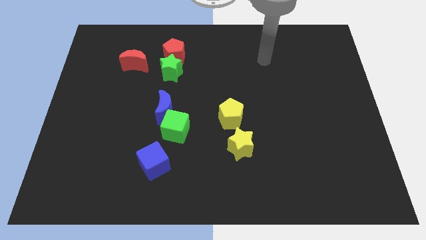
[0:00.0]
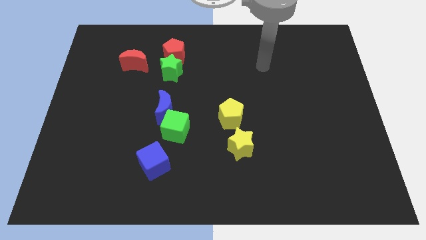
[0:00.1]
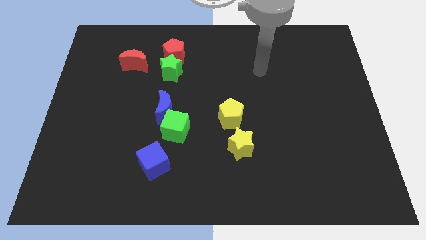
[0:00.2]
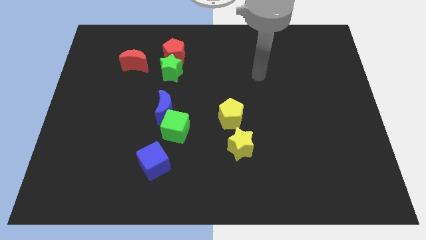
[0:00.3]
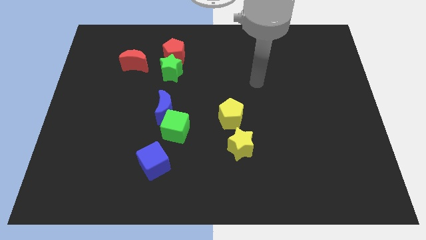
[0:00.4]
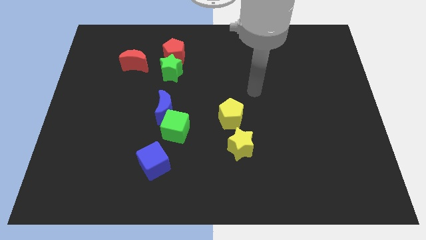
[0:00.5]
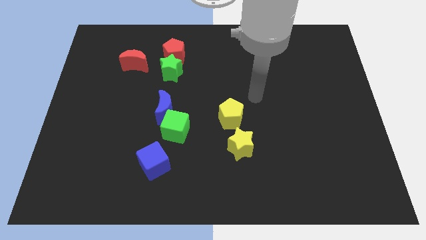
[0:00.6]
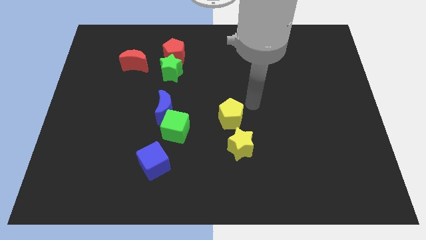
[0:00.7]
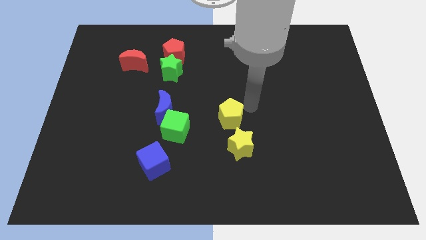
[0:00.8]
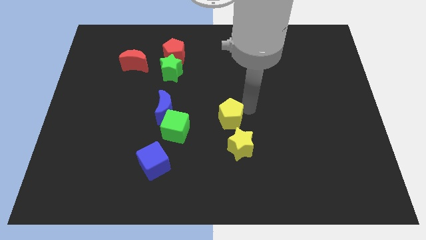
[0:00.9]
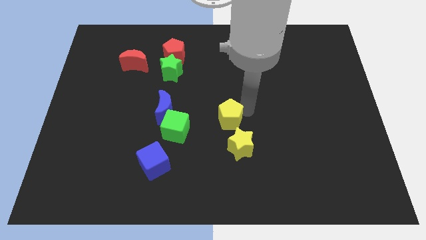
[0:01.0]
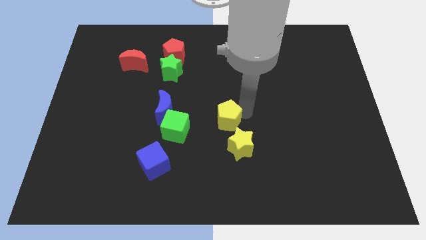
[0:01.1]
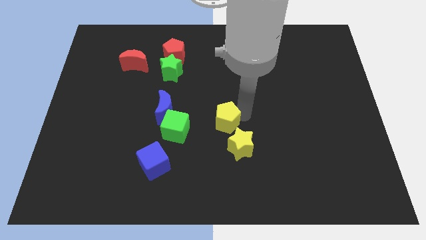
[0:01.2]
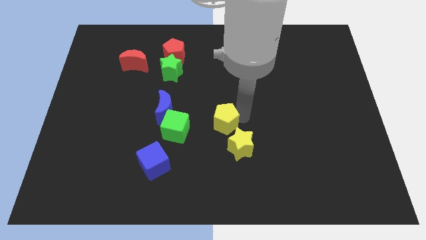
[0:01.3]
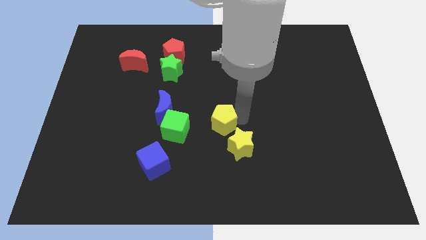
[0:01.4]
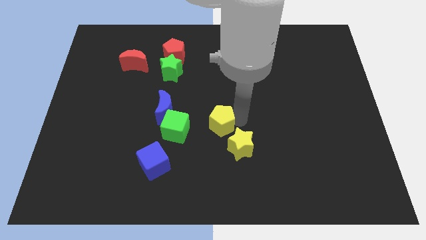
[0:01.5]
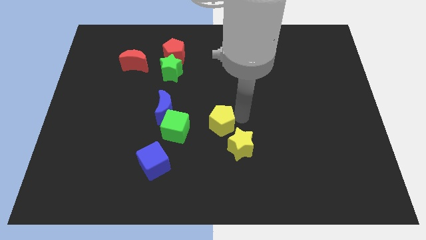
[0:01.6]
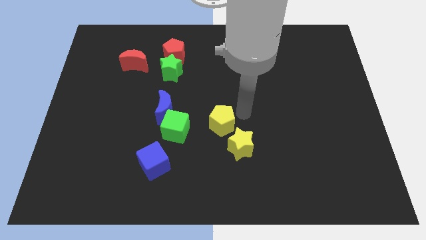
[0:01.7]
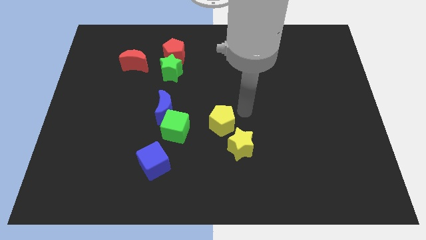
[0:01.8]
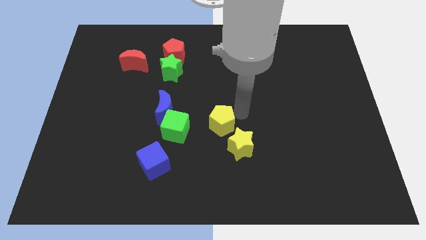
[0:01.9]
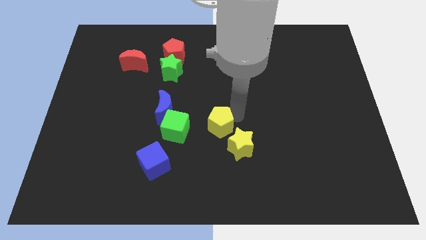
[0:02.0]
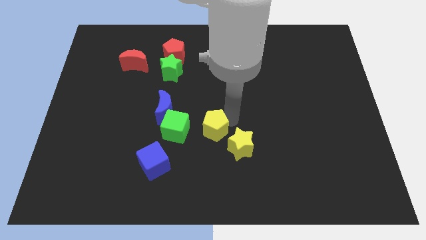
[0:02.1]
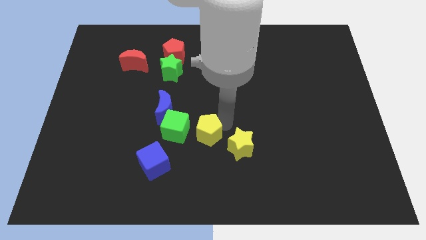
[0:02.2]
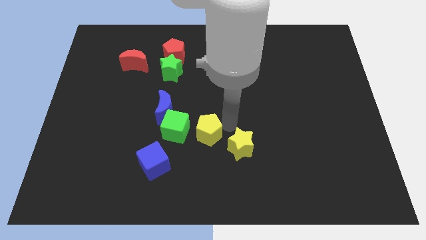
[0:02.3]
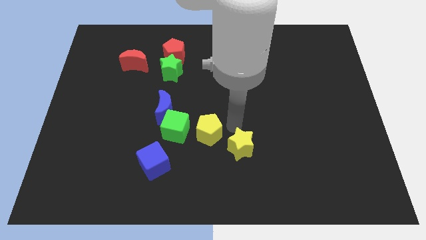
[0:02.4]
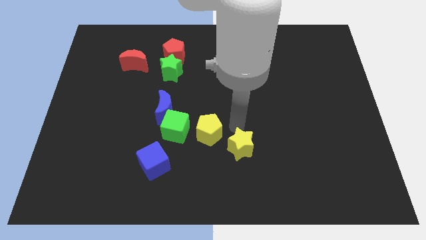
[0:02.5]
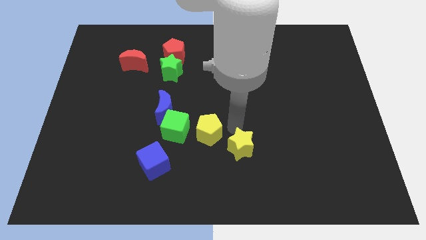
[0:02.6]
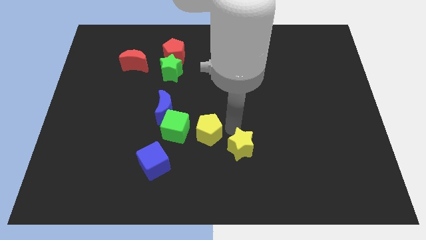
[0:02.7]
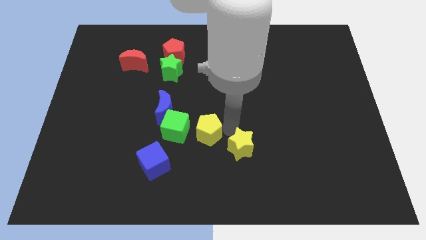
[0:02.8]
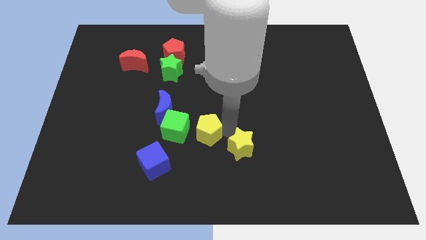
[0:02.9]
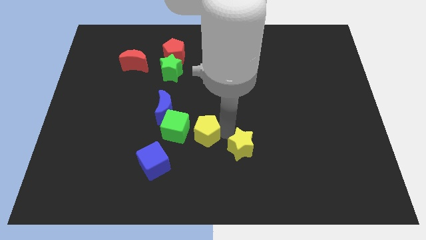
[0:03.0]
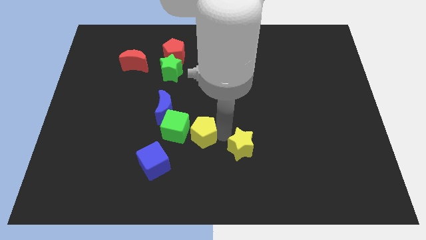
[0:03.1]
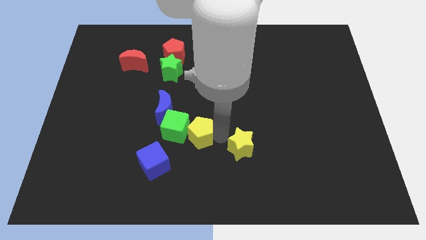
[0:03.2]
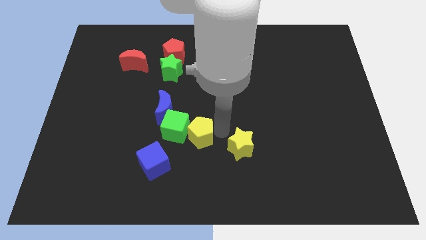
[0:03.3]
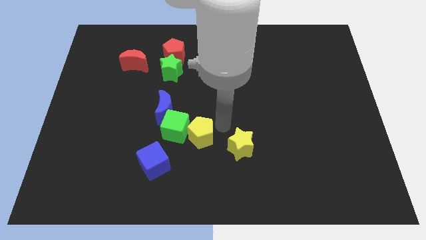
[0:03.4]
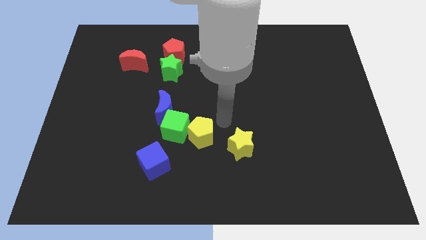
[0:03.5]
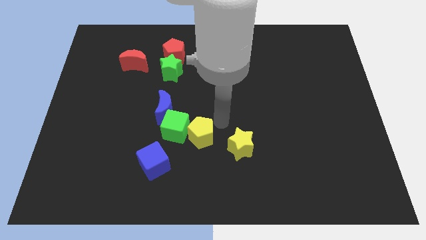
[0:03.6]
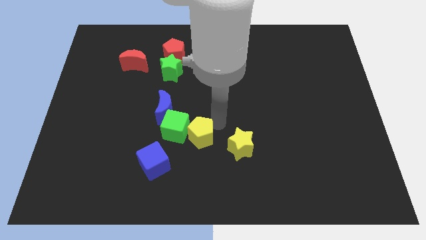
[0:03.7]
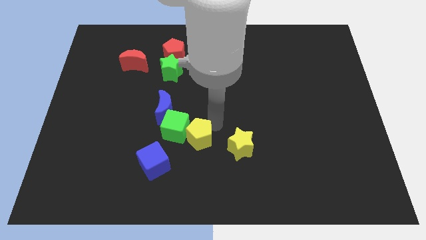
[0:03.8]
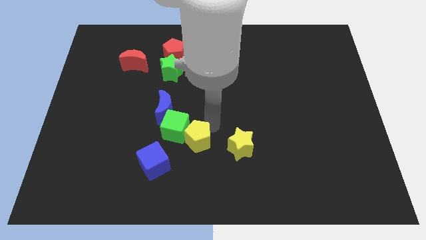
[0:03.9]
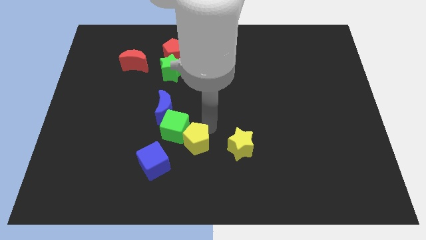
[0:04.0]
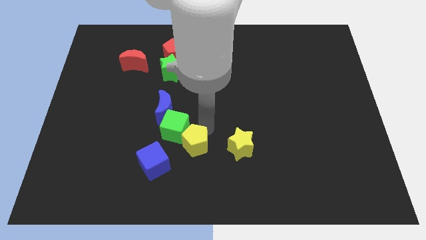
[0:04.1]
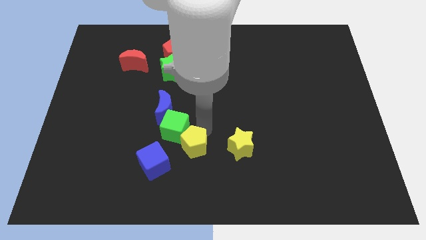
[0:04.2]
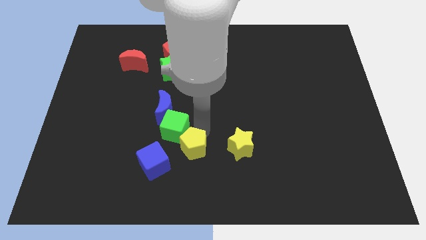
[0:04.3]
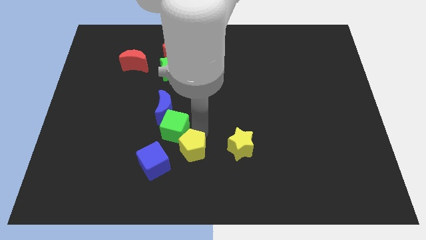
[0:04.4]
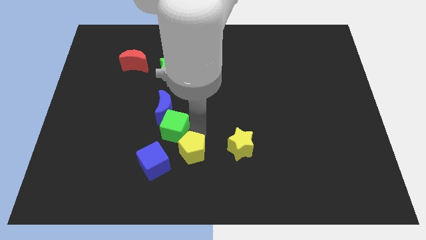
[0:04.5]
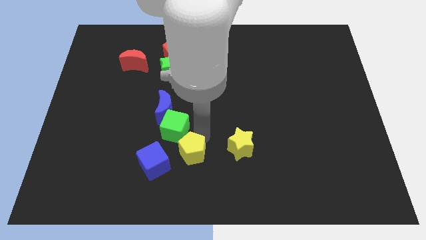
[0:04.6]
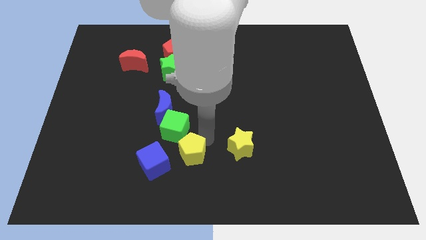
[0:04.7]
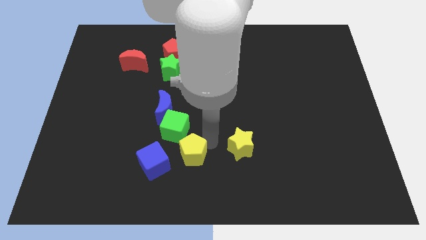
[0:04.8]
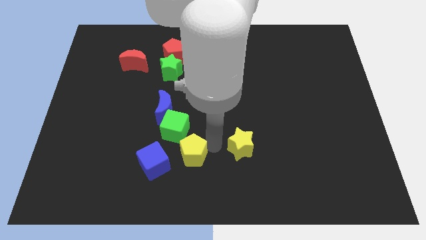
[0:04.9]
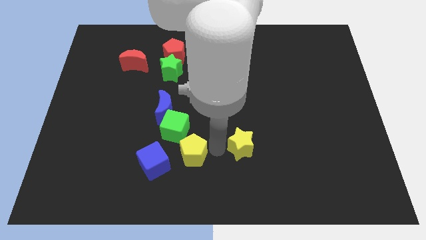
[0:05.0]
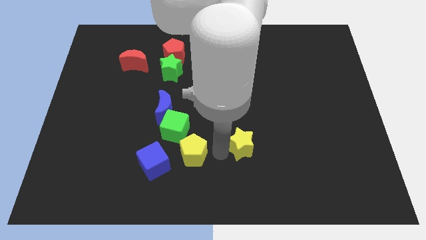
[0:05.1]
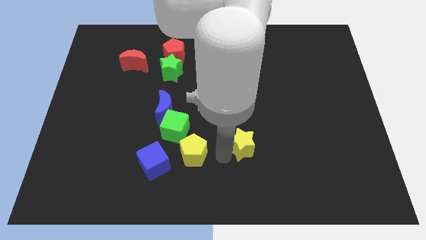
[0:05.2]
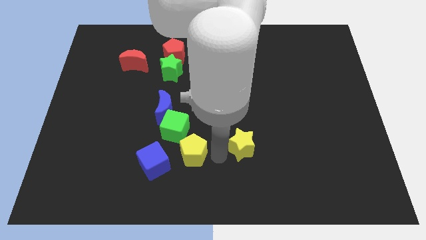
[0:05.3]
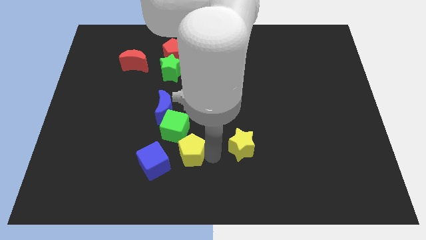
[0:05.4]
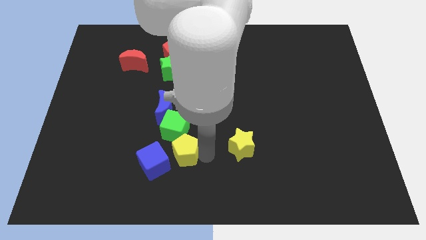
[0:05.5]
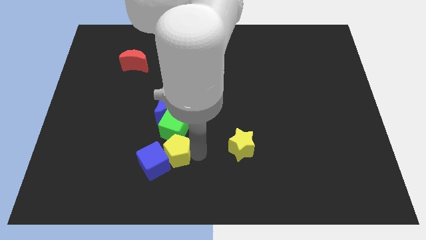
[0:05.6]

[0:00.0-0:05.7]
put the yellow pentagon close to the blue cube

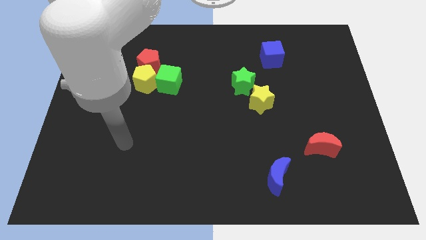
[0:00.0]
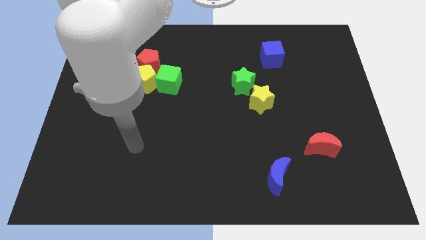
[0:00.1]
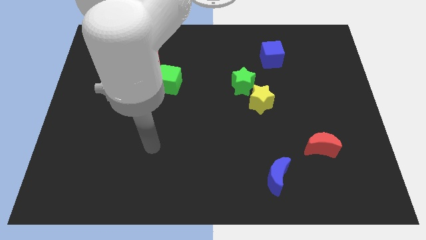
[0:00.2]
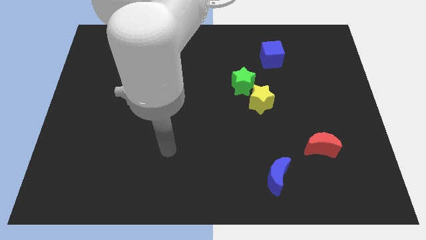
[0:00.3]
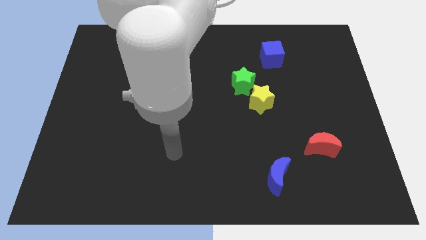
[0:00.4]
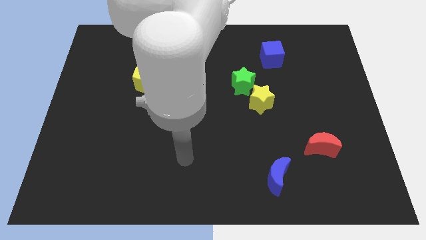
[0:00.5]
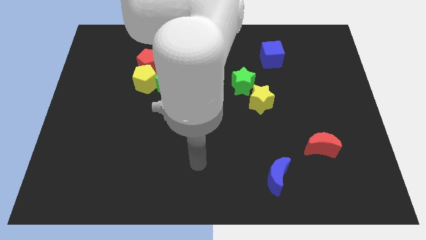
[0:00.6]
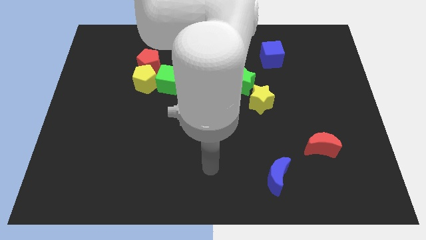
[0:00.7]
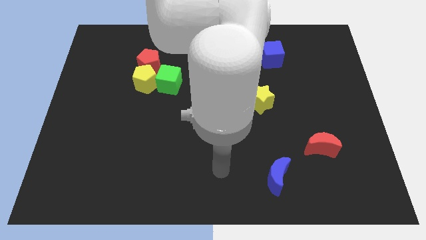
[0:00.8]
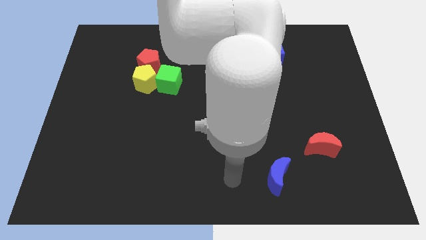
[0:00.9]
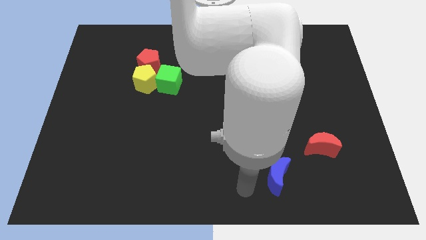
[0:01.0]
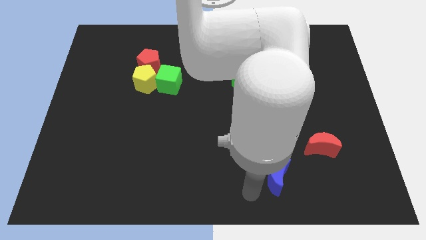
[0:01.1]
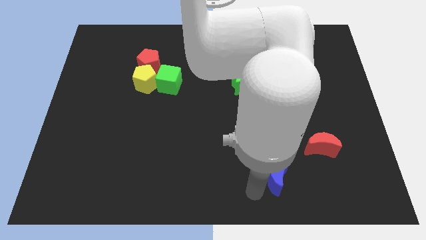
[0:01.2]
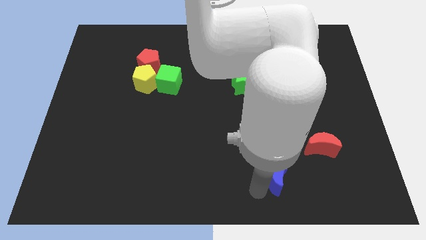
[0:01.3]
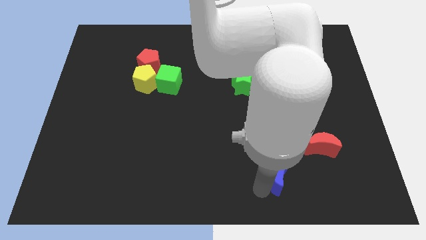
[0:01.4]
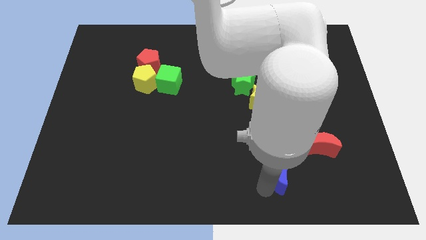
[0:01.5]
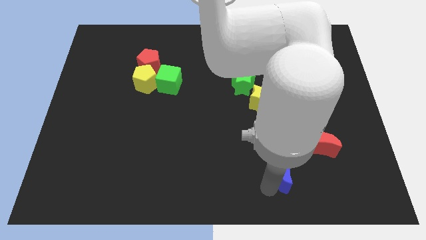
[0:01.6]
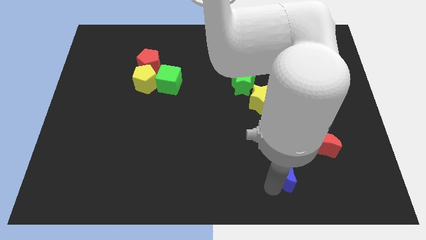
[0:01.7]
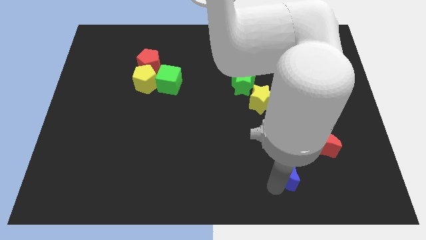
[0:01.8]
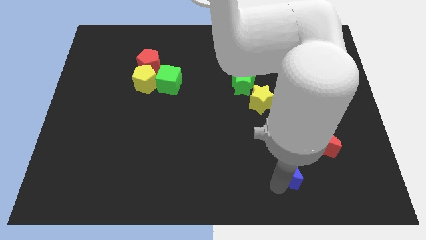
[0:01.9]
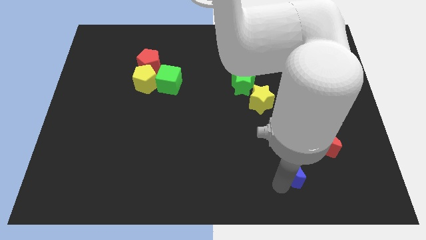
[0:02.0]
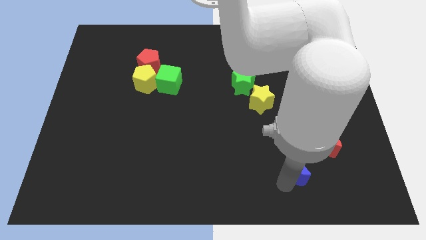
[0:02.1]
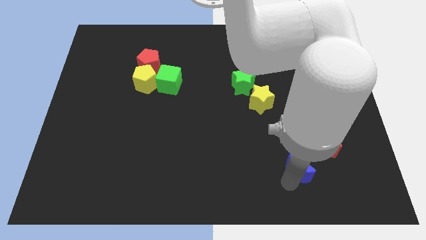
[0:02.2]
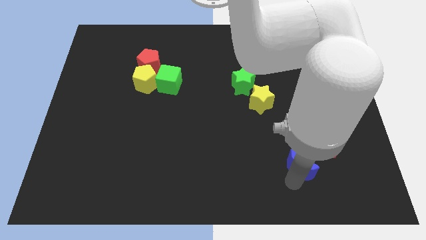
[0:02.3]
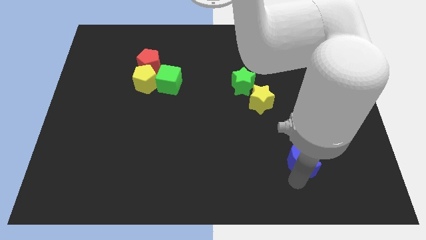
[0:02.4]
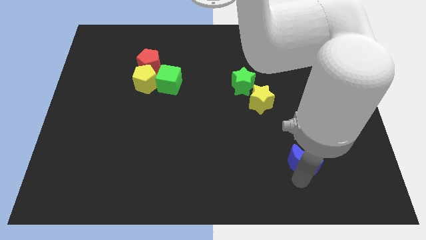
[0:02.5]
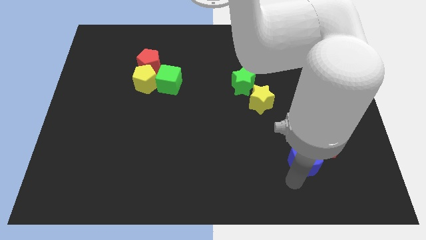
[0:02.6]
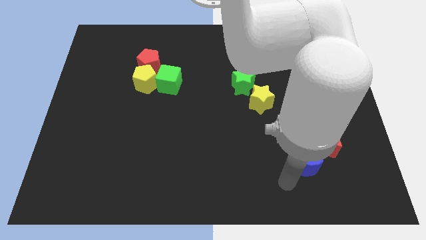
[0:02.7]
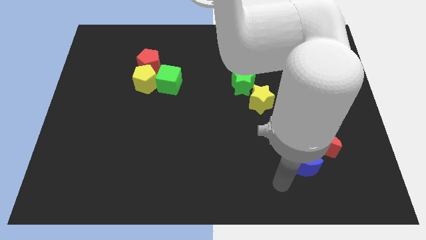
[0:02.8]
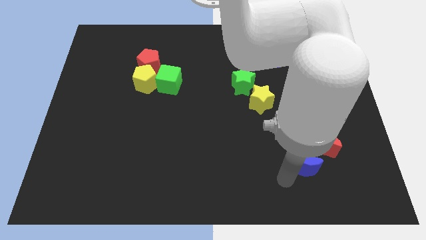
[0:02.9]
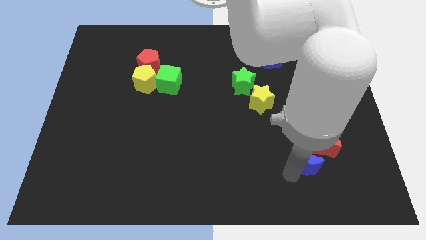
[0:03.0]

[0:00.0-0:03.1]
put the blue moon to the red moon
